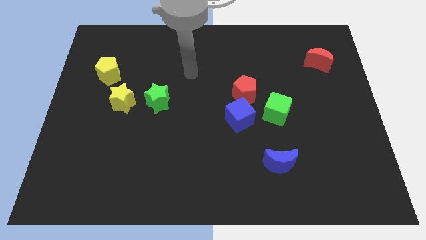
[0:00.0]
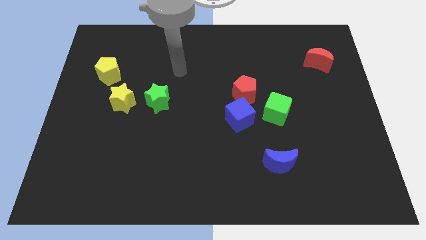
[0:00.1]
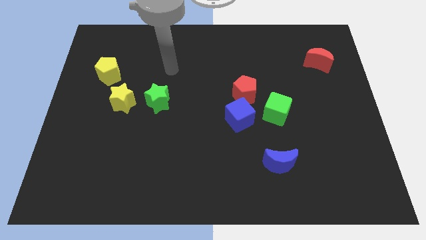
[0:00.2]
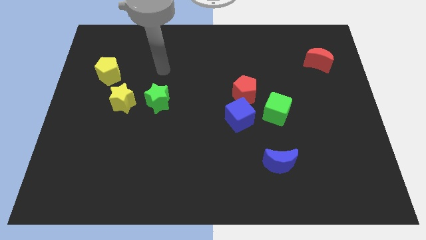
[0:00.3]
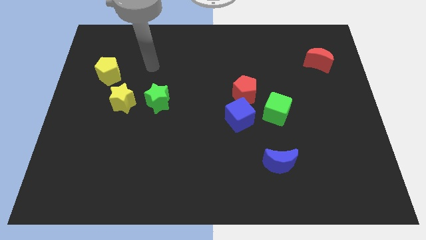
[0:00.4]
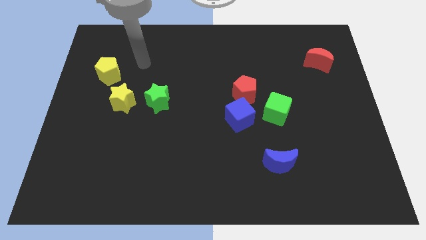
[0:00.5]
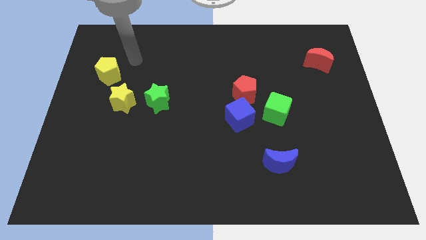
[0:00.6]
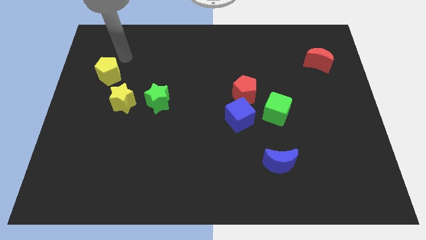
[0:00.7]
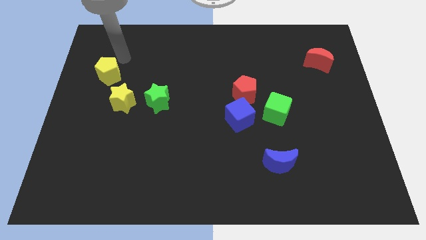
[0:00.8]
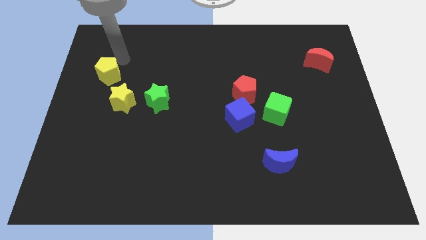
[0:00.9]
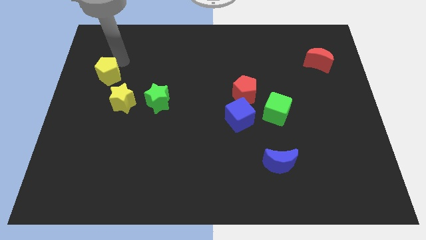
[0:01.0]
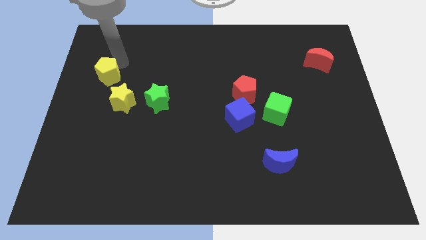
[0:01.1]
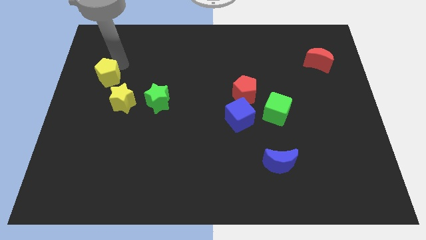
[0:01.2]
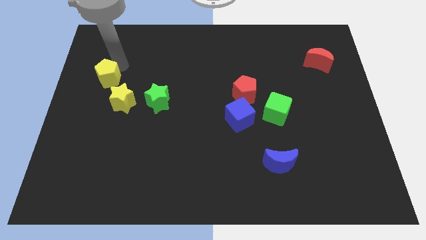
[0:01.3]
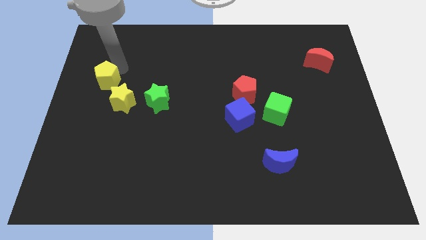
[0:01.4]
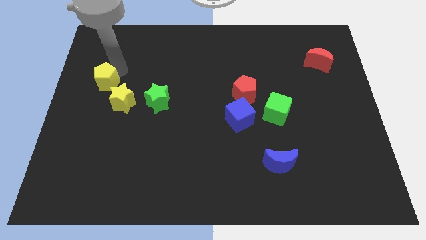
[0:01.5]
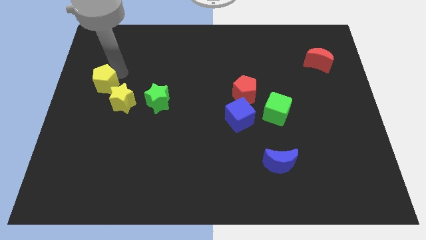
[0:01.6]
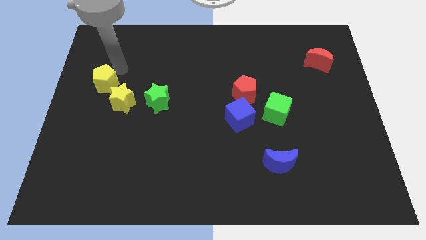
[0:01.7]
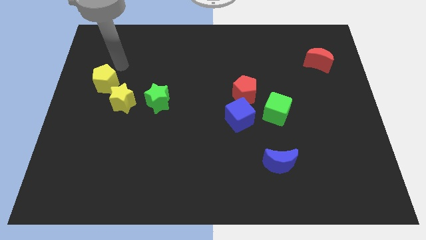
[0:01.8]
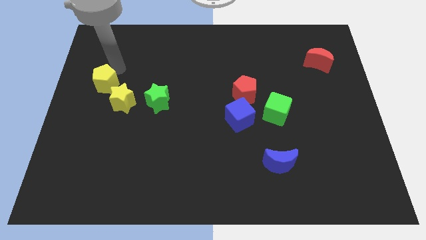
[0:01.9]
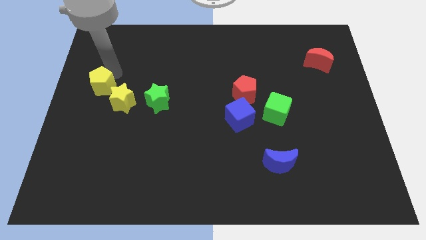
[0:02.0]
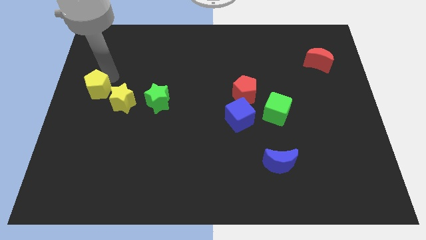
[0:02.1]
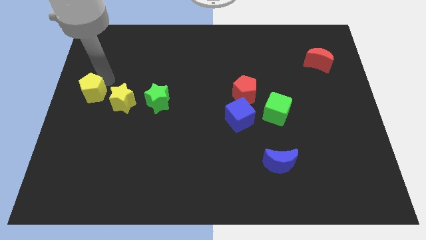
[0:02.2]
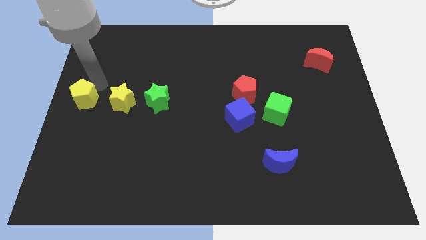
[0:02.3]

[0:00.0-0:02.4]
push the yellow pentagon slightly downwards

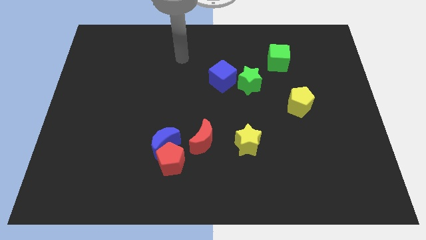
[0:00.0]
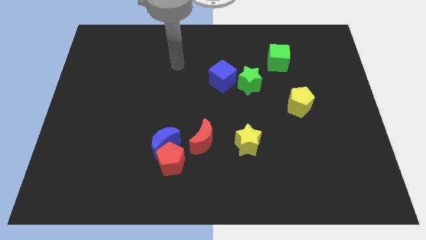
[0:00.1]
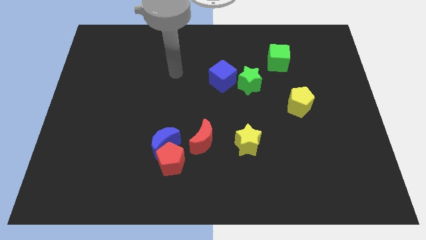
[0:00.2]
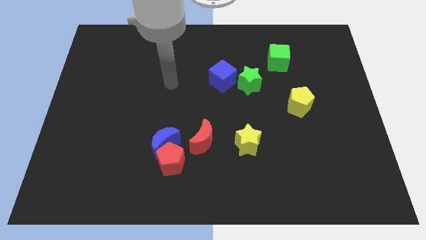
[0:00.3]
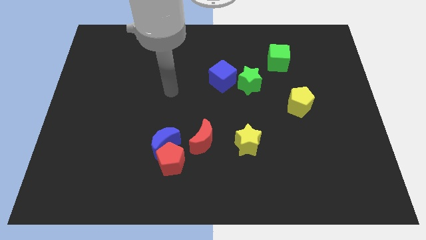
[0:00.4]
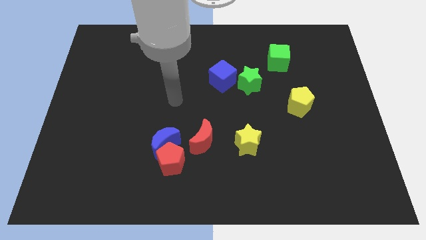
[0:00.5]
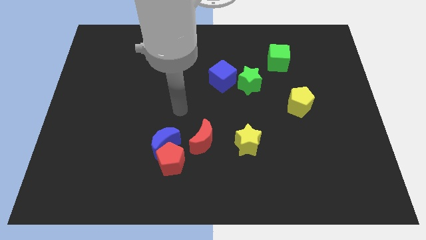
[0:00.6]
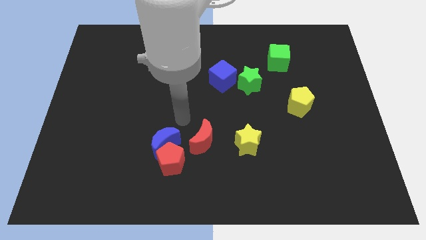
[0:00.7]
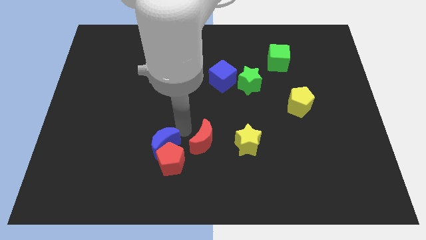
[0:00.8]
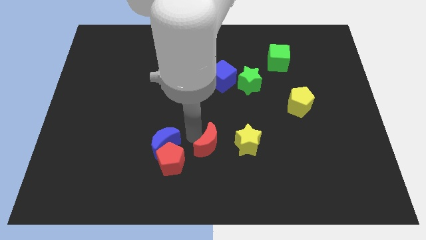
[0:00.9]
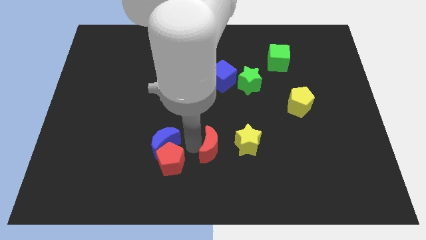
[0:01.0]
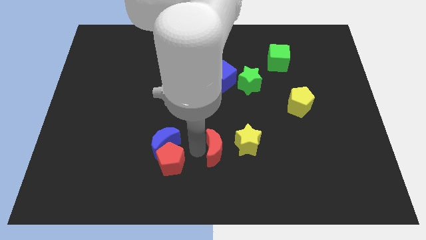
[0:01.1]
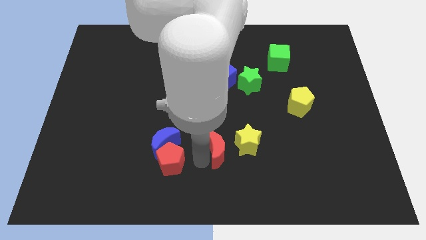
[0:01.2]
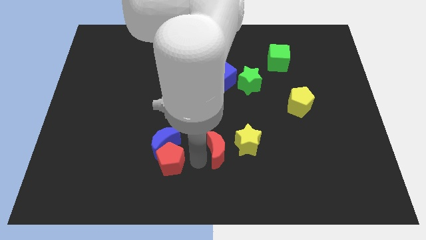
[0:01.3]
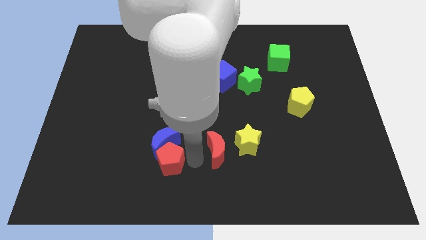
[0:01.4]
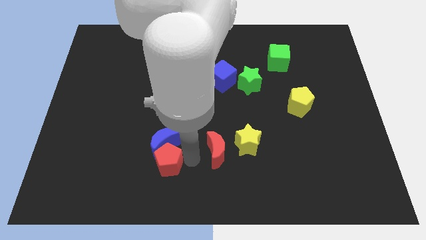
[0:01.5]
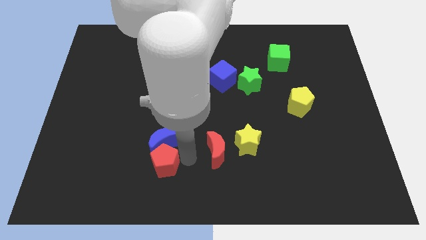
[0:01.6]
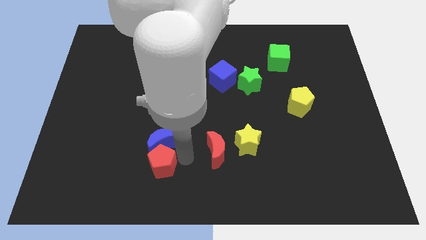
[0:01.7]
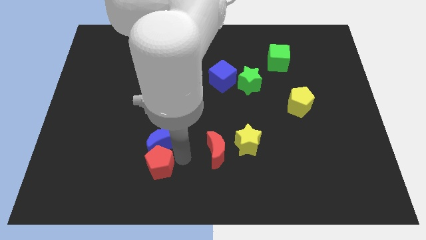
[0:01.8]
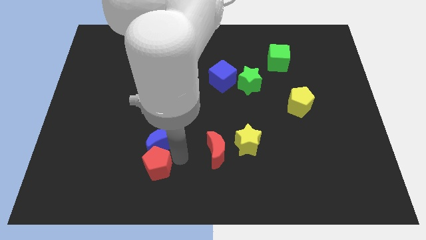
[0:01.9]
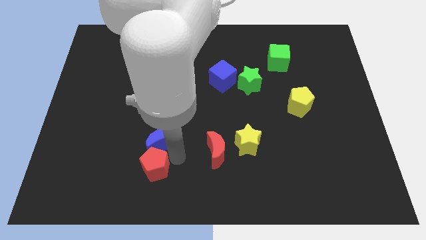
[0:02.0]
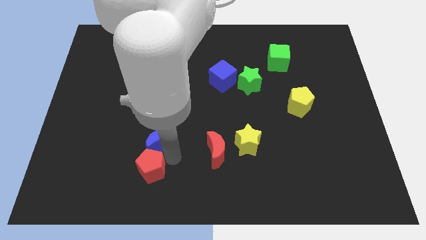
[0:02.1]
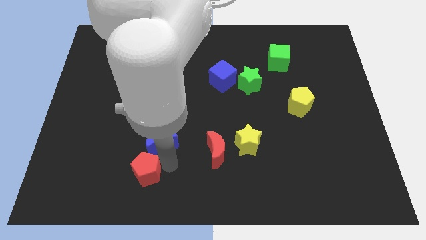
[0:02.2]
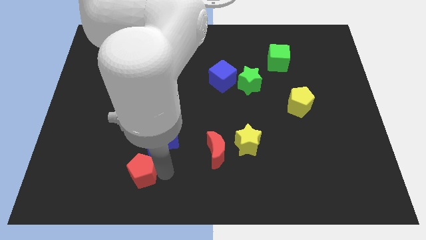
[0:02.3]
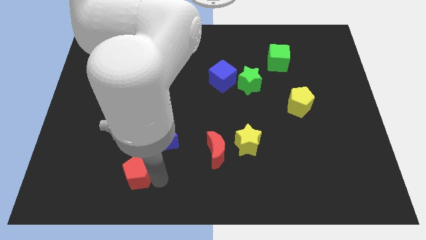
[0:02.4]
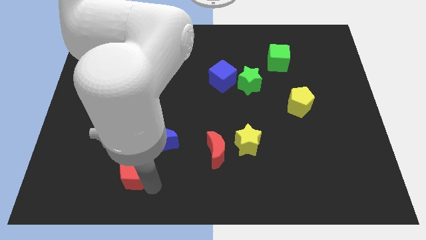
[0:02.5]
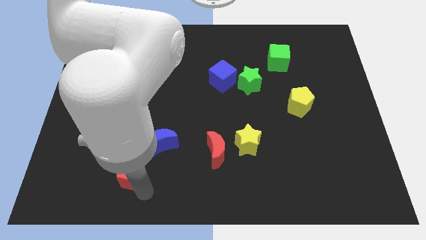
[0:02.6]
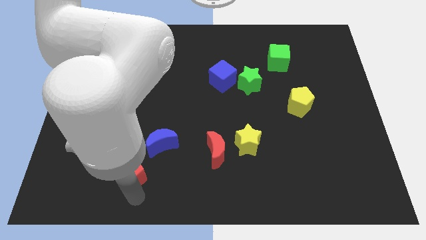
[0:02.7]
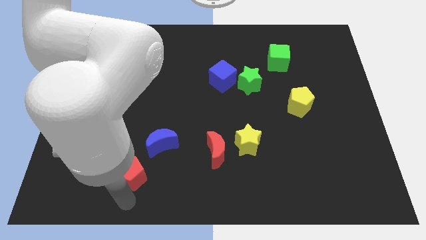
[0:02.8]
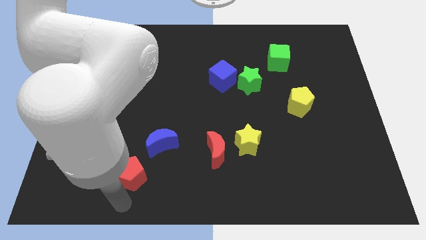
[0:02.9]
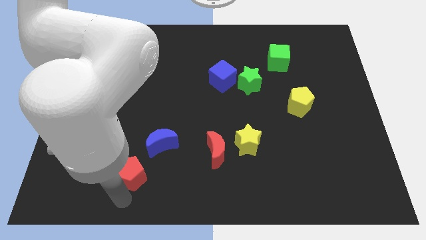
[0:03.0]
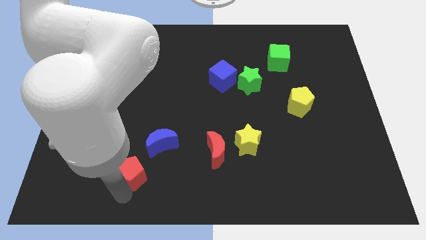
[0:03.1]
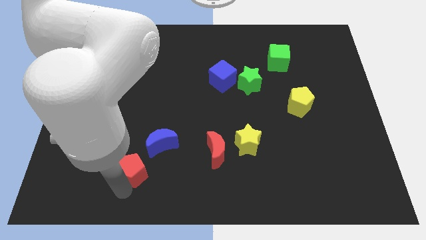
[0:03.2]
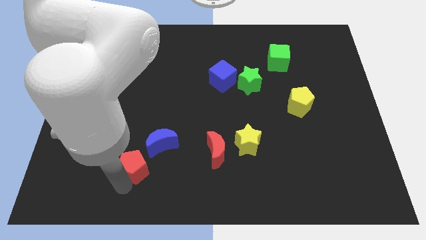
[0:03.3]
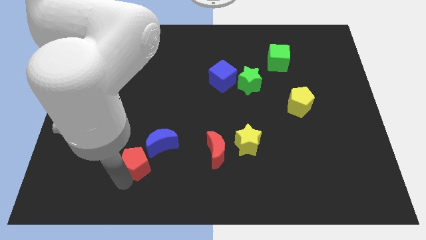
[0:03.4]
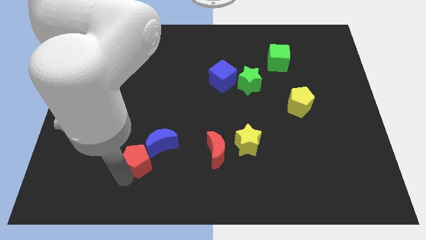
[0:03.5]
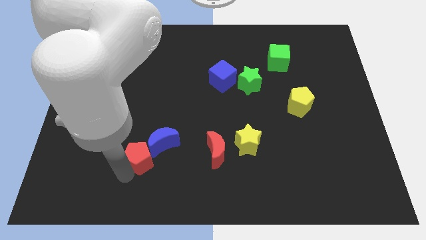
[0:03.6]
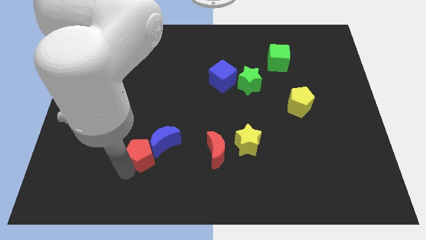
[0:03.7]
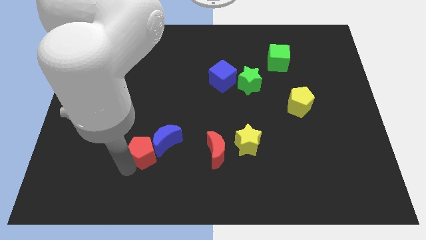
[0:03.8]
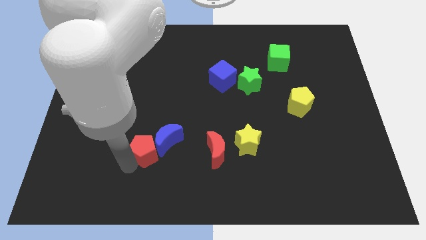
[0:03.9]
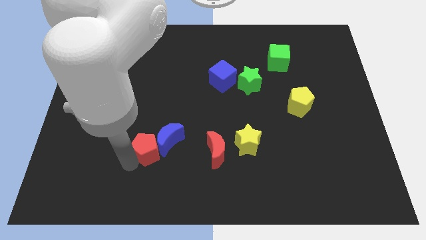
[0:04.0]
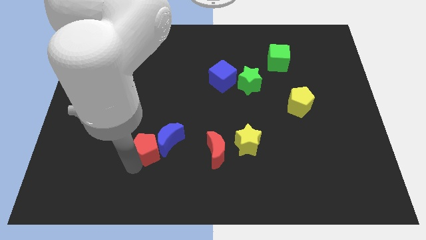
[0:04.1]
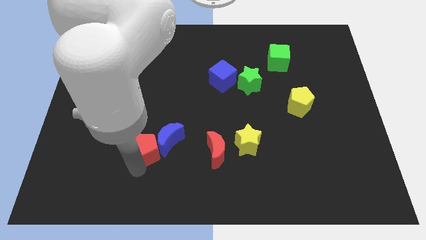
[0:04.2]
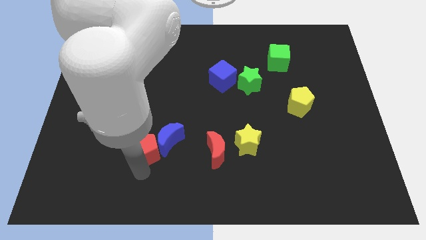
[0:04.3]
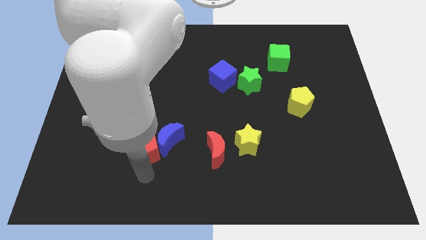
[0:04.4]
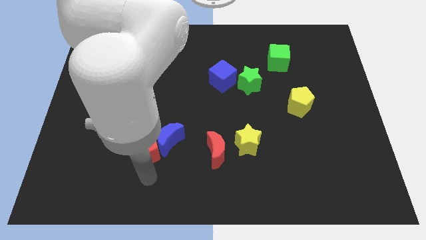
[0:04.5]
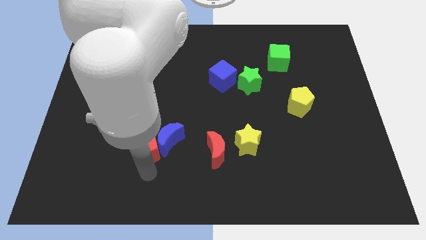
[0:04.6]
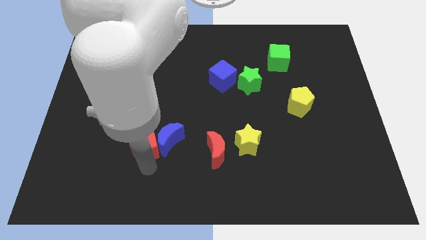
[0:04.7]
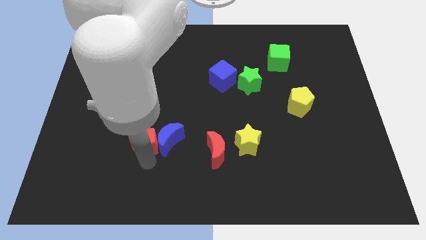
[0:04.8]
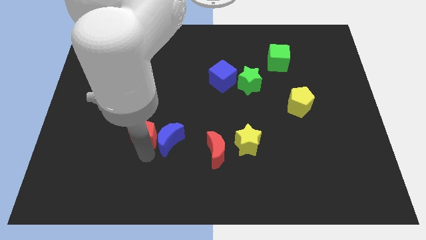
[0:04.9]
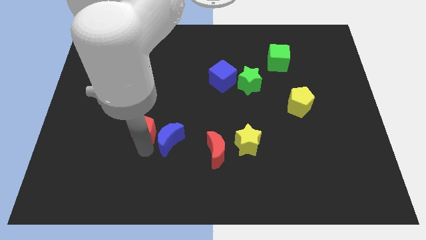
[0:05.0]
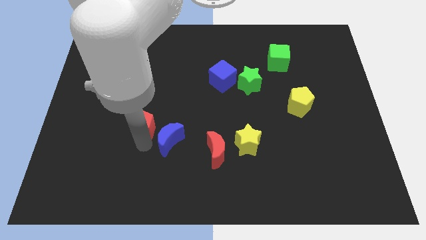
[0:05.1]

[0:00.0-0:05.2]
slightly move the red pentagon up

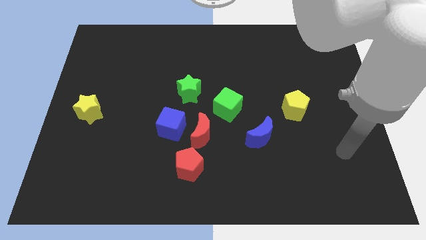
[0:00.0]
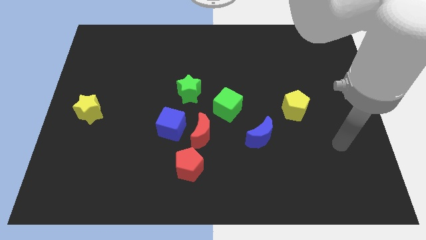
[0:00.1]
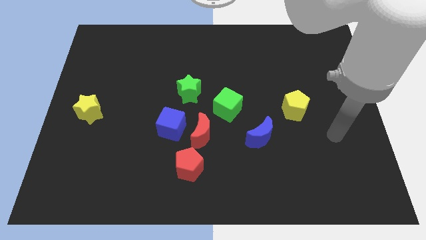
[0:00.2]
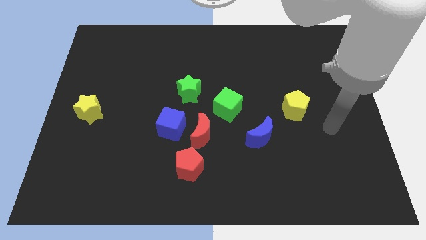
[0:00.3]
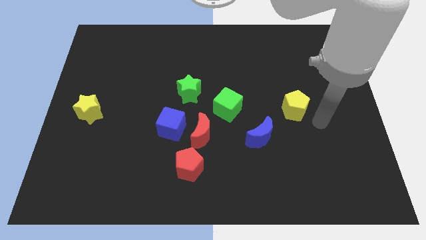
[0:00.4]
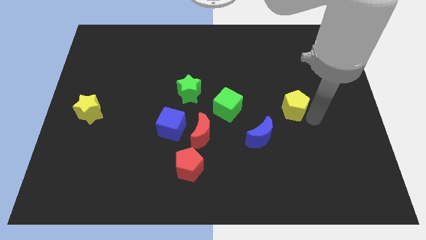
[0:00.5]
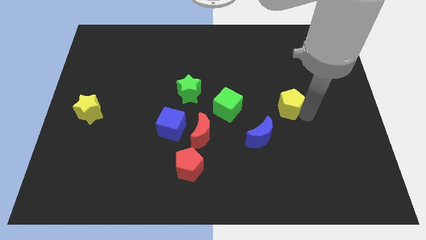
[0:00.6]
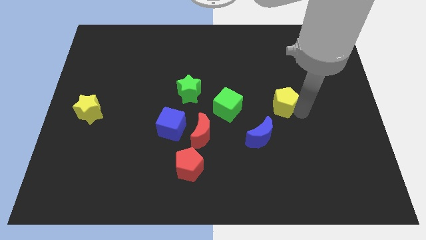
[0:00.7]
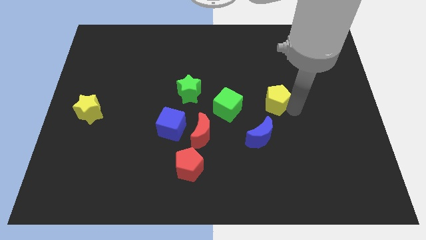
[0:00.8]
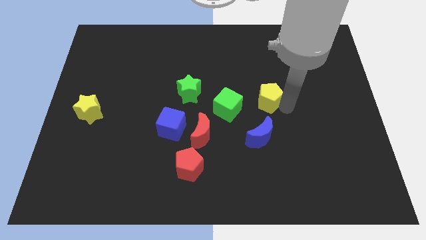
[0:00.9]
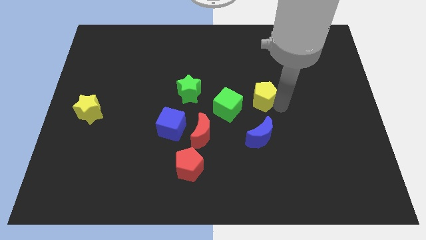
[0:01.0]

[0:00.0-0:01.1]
push the yellow pentagon up and to the left slightly
